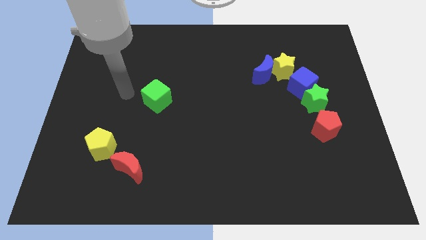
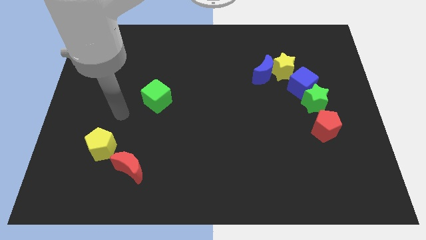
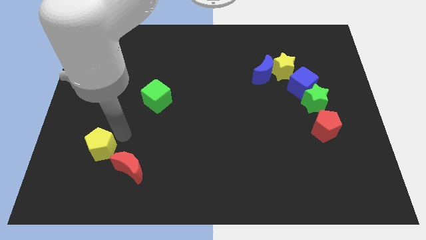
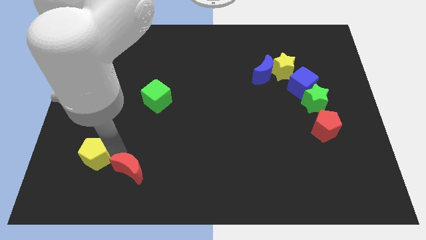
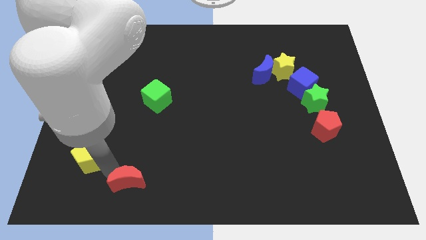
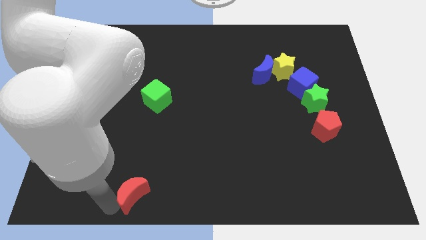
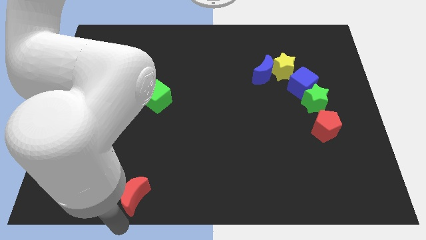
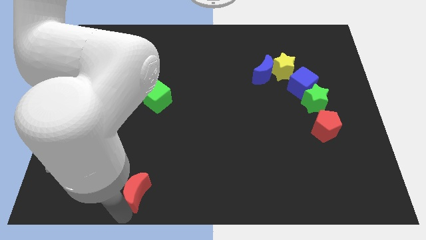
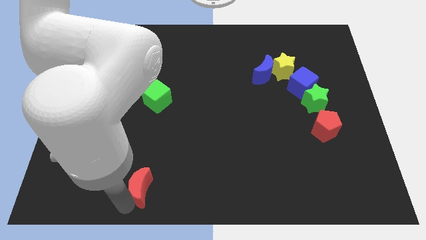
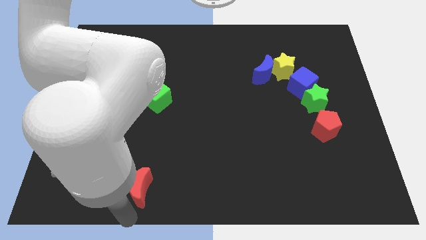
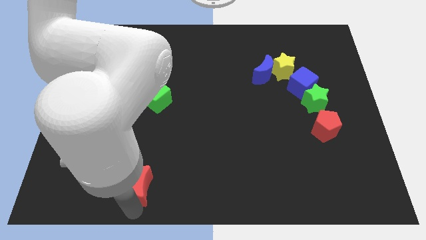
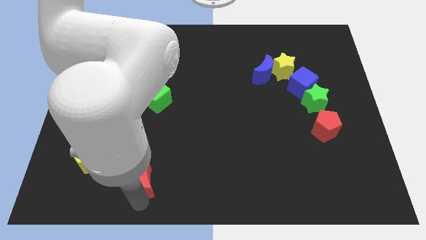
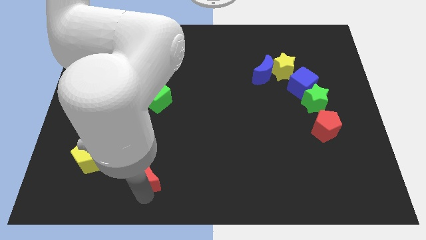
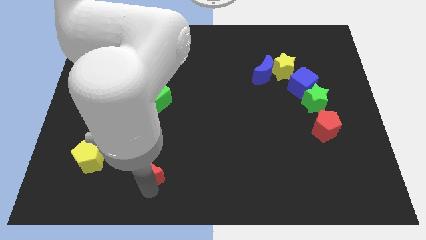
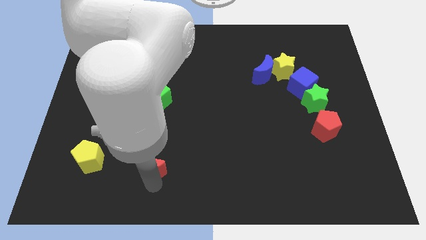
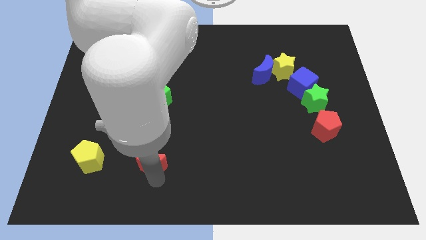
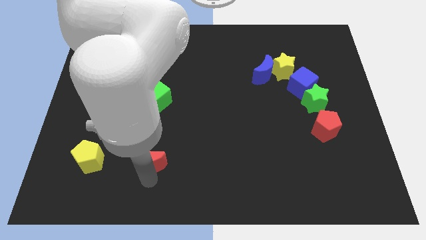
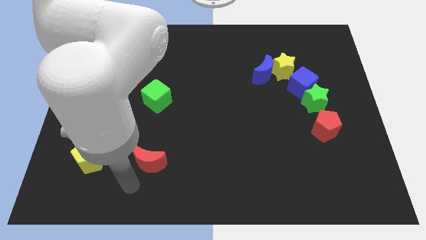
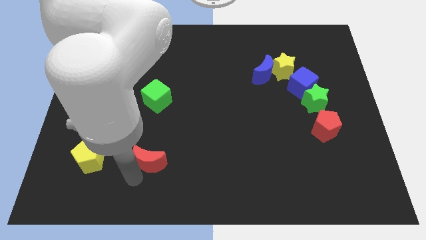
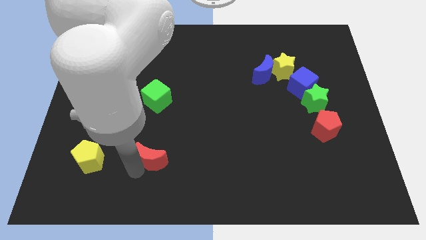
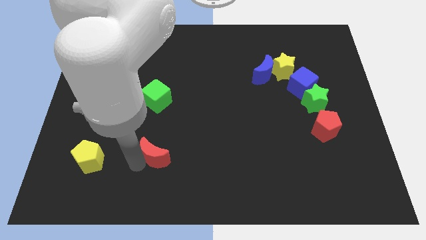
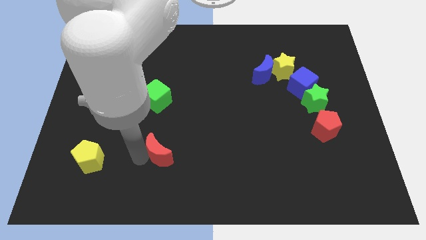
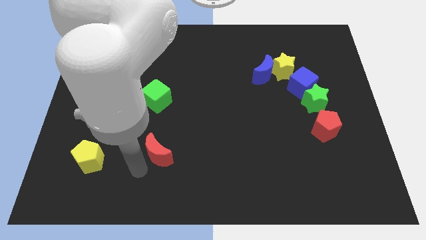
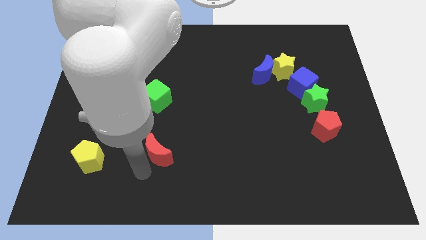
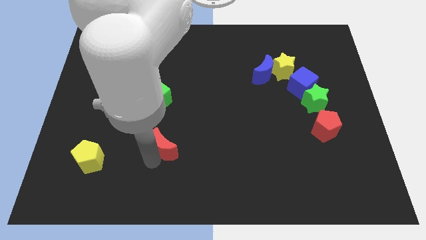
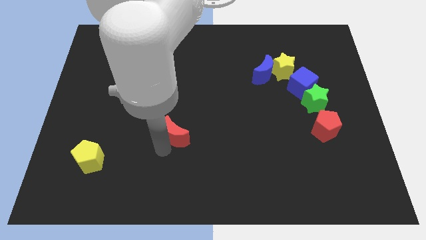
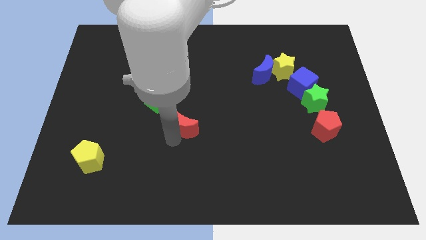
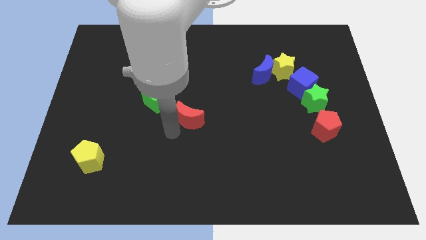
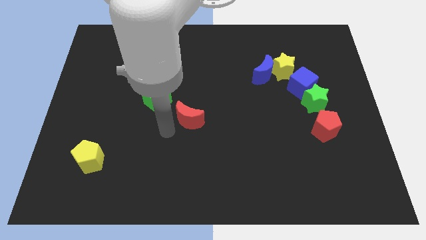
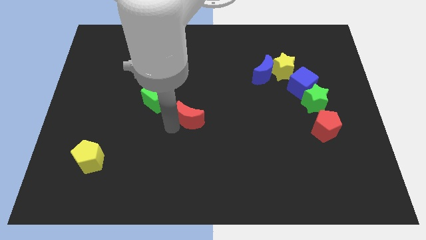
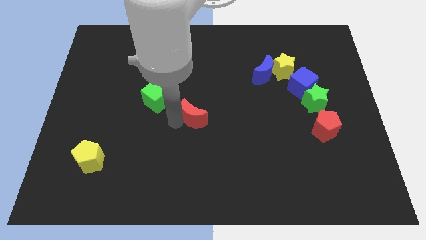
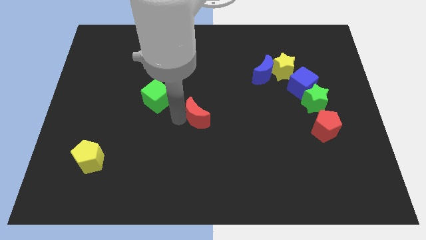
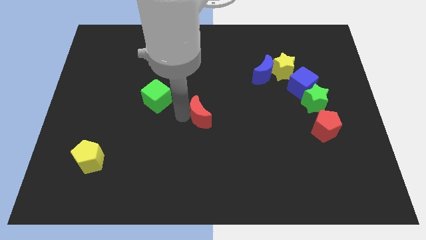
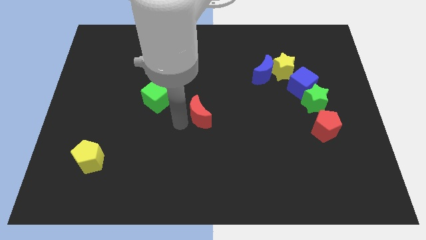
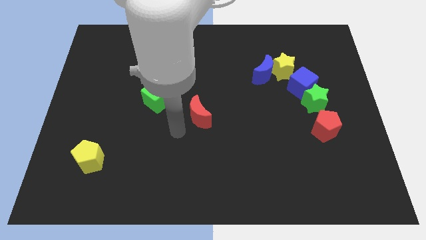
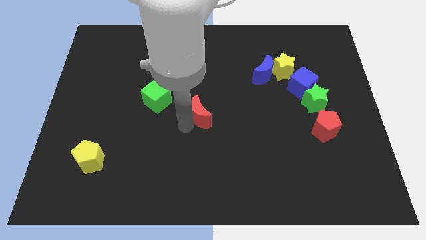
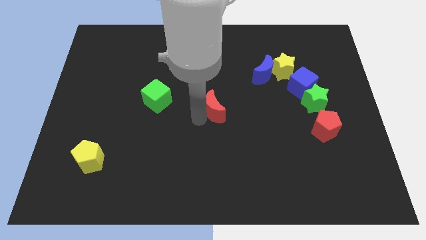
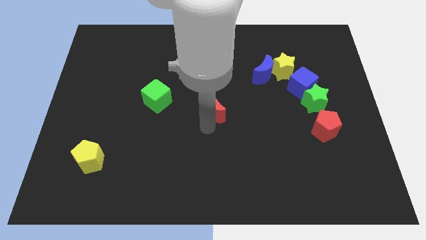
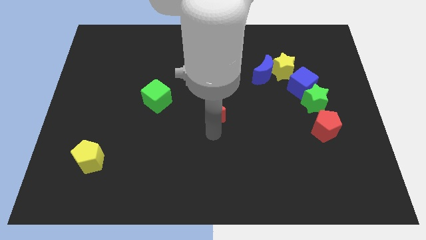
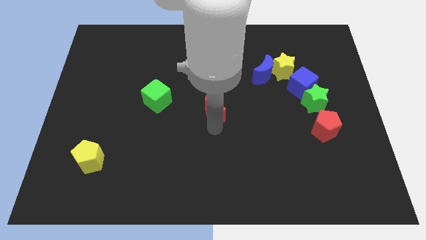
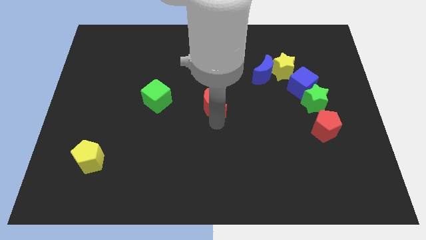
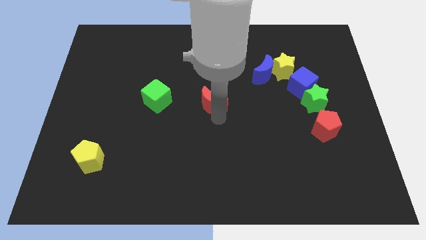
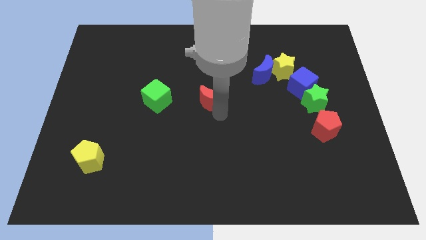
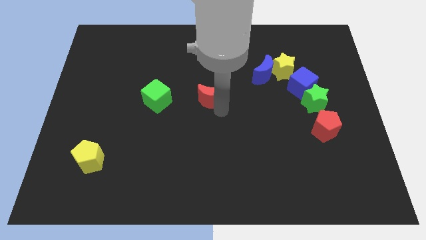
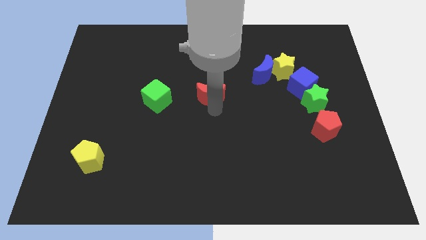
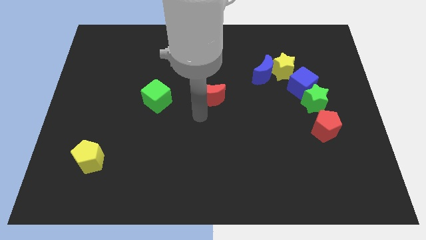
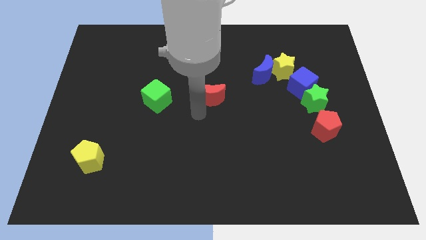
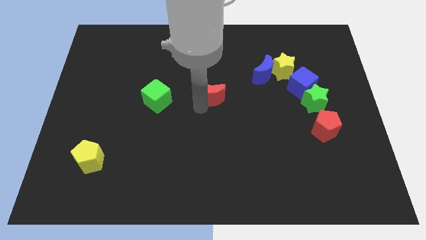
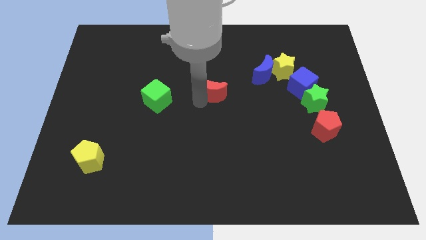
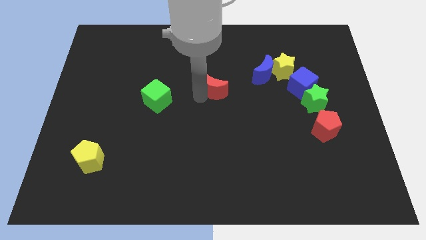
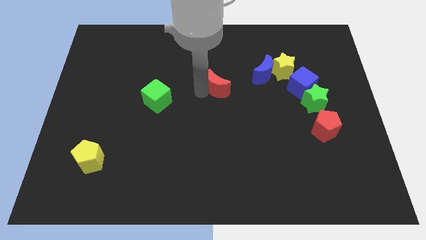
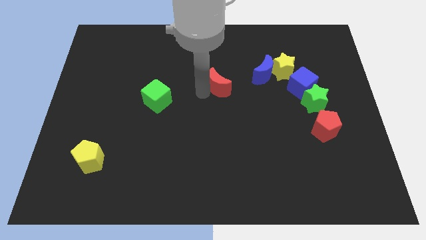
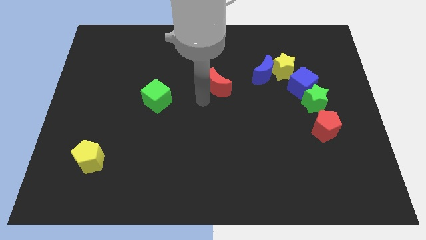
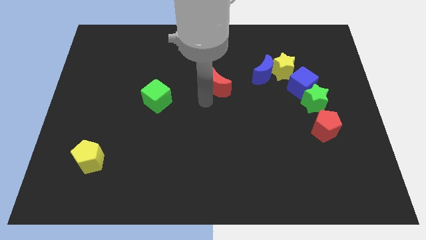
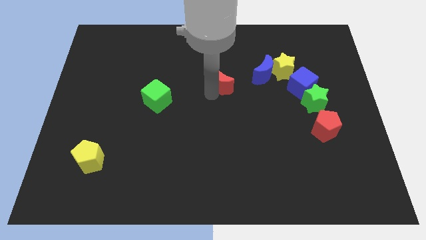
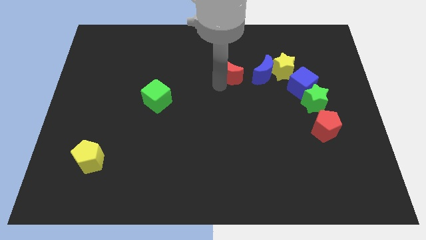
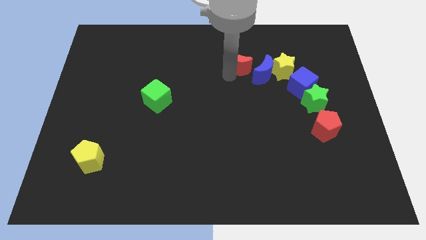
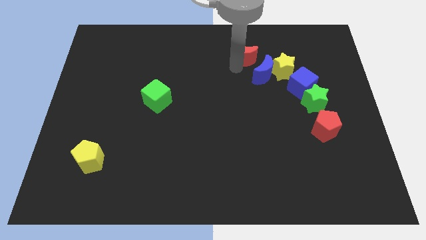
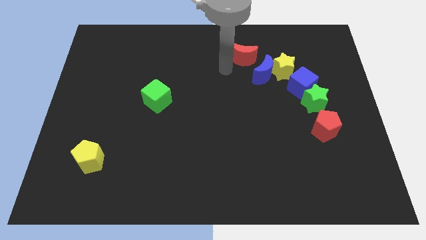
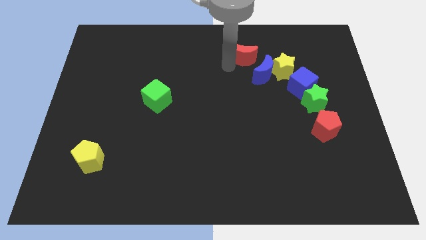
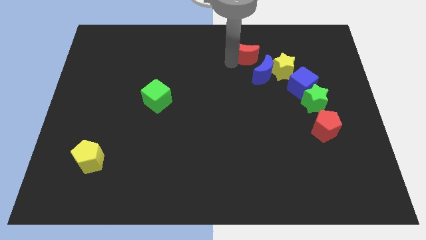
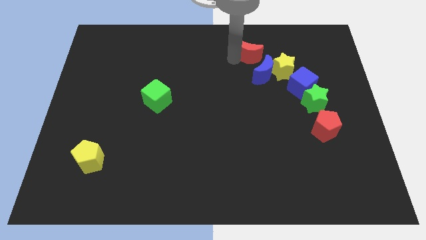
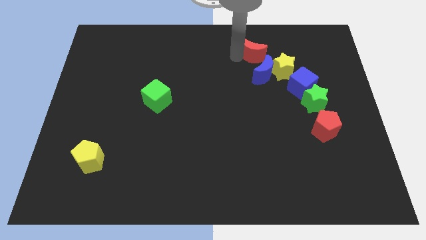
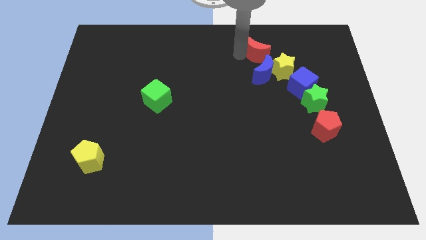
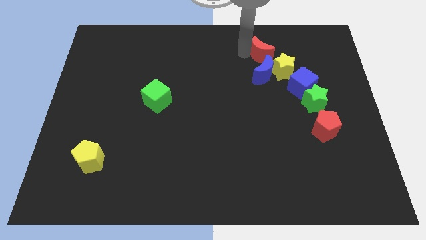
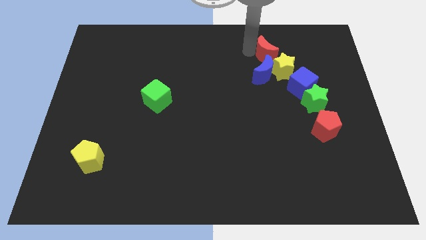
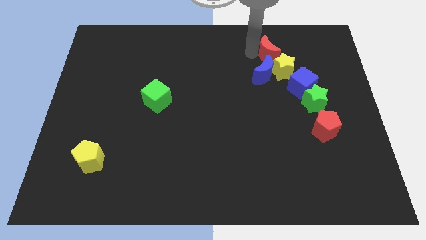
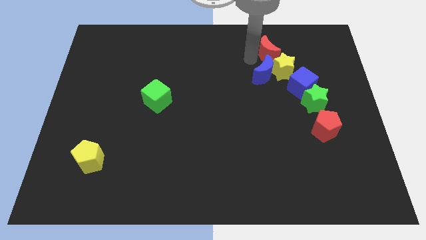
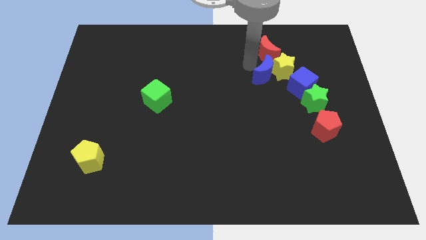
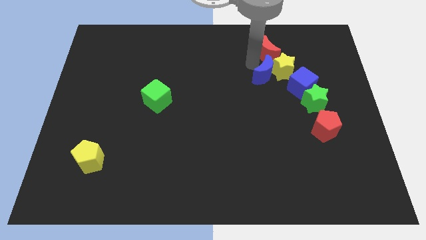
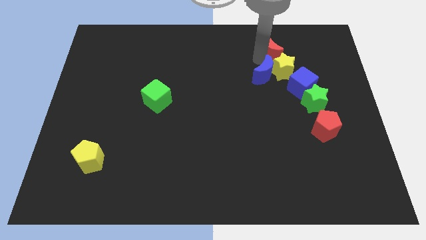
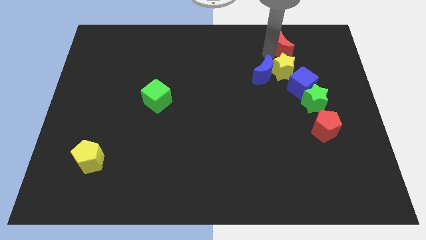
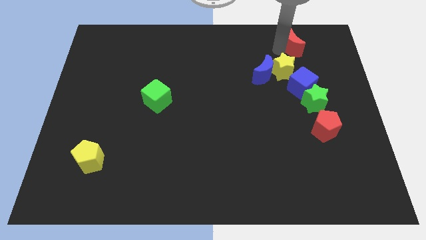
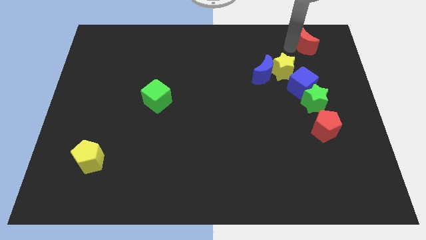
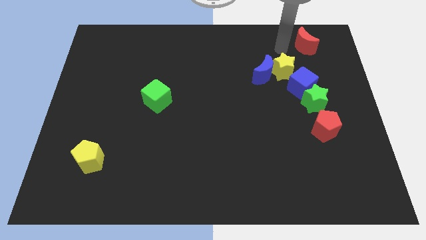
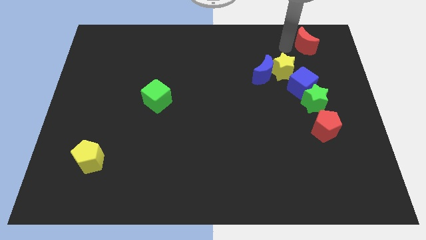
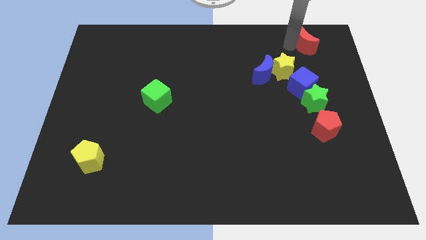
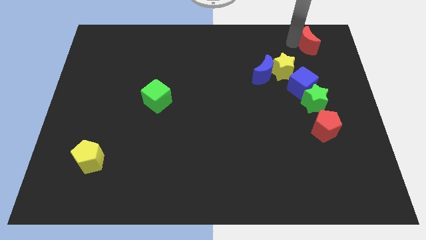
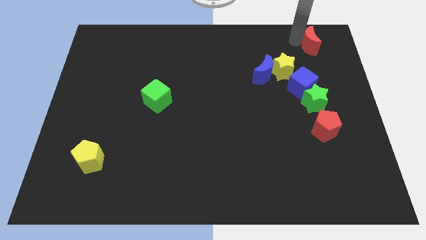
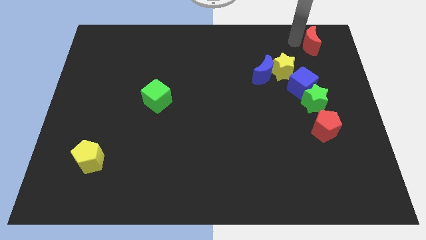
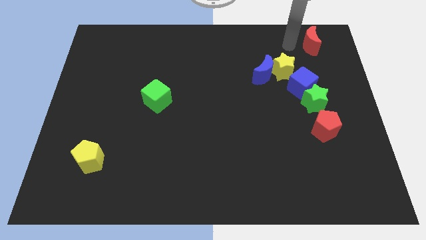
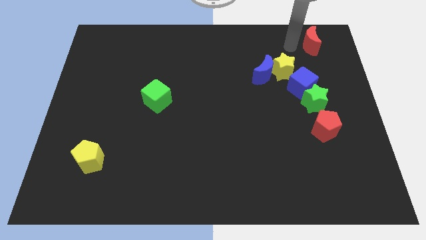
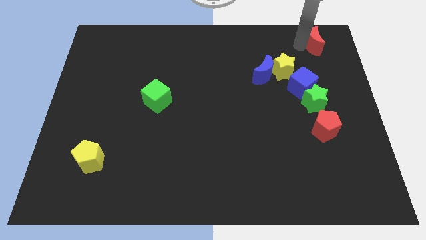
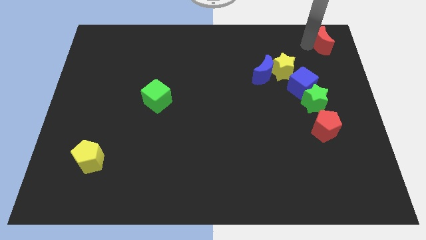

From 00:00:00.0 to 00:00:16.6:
put the red moon to the top right
